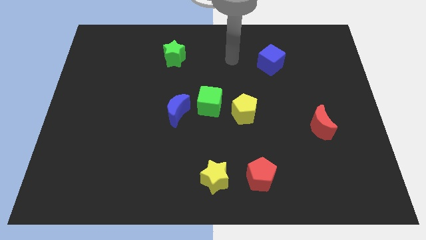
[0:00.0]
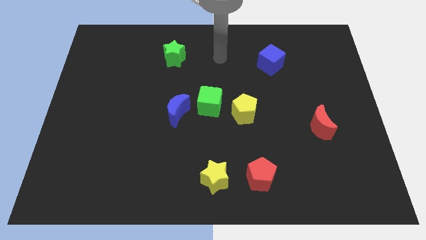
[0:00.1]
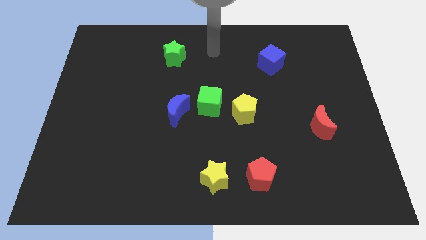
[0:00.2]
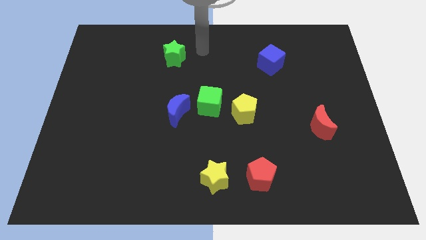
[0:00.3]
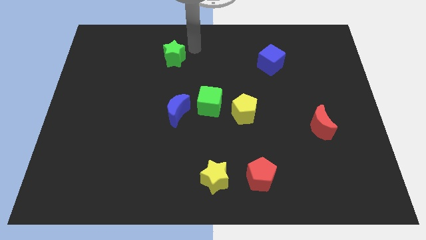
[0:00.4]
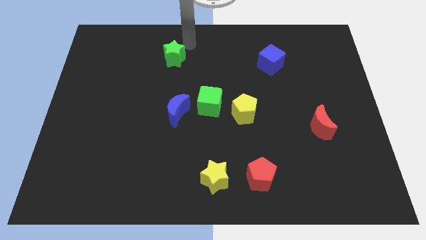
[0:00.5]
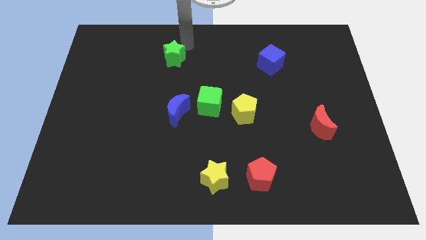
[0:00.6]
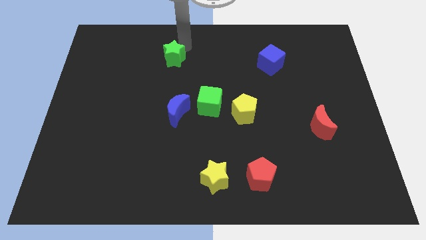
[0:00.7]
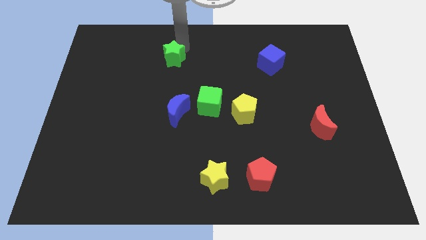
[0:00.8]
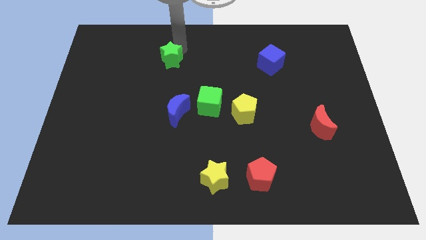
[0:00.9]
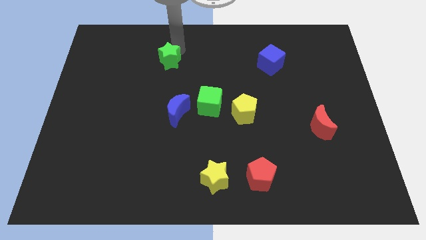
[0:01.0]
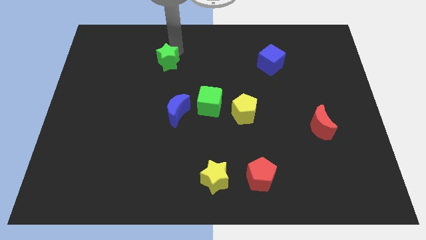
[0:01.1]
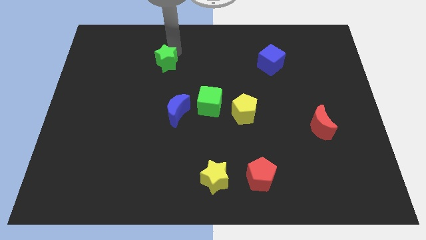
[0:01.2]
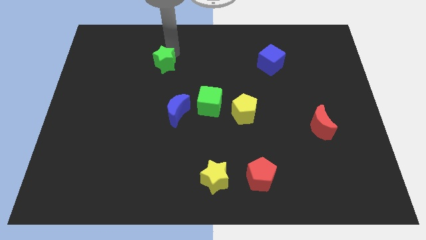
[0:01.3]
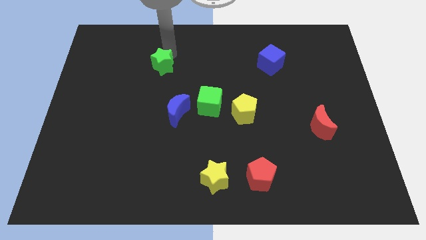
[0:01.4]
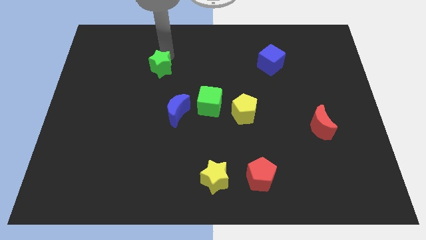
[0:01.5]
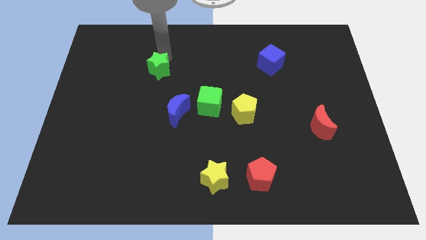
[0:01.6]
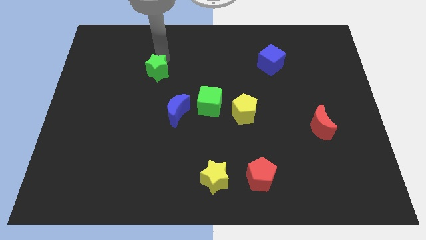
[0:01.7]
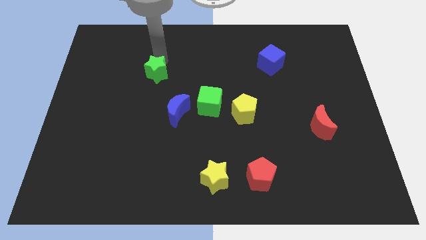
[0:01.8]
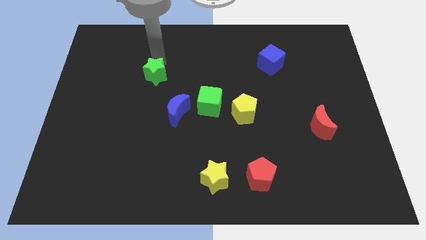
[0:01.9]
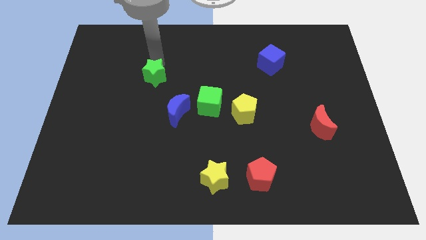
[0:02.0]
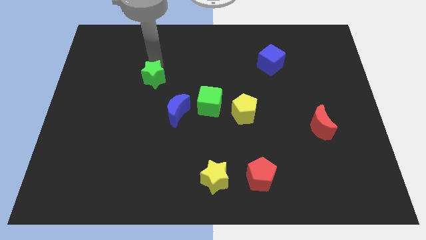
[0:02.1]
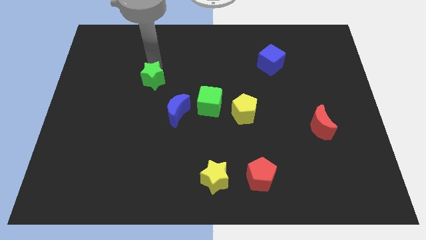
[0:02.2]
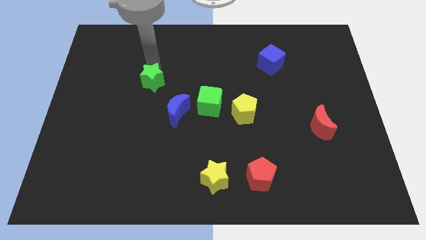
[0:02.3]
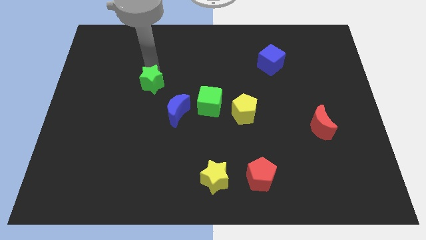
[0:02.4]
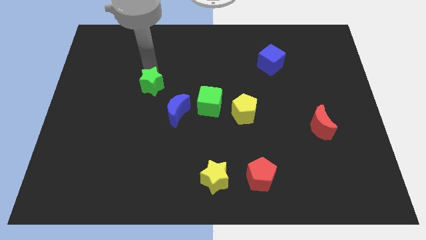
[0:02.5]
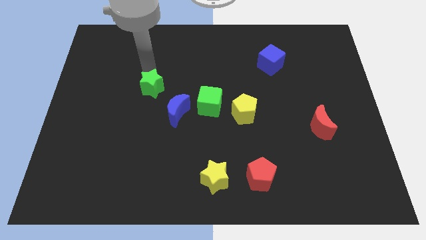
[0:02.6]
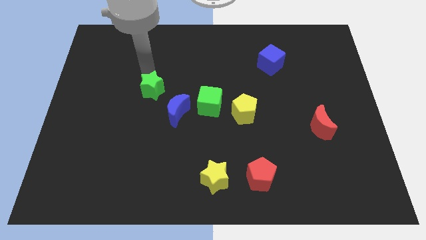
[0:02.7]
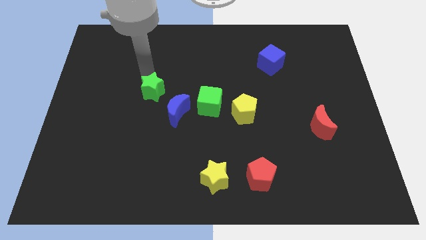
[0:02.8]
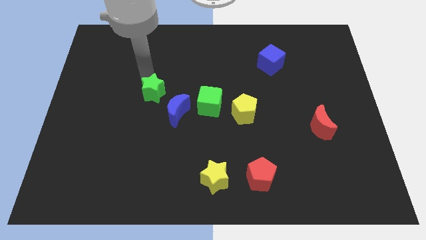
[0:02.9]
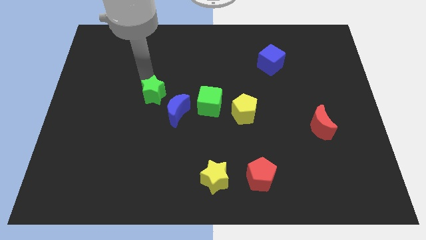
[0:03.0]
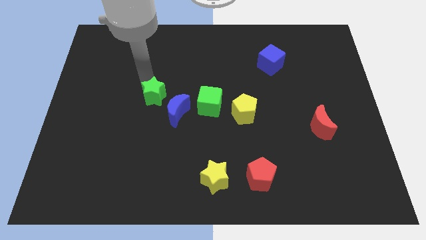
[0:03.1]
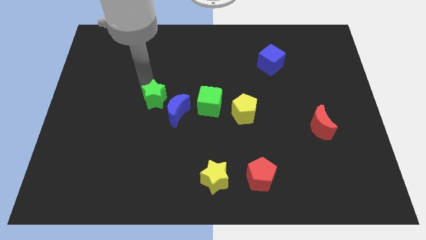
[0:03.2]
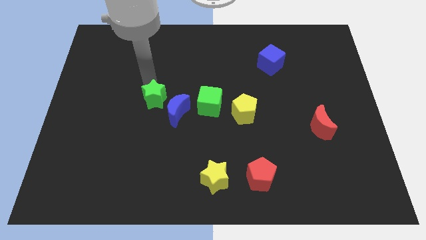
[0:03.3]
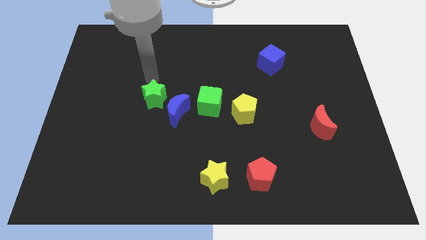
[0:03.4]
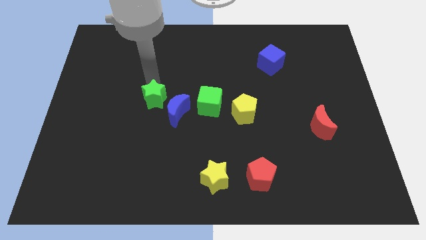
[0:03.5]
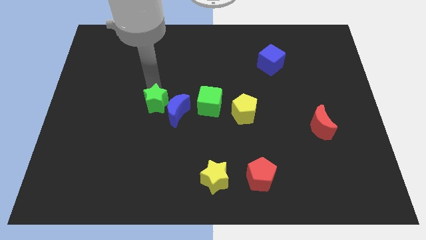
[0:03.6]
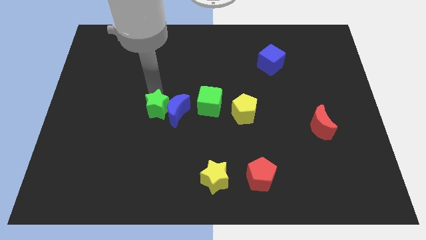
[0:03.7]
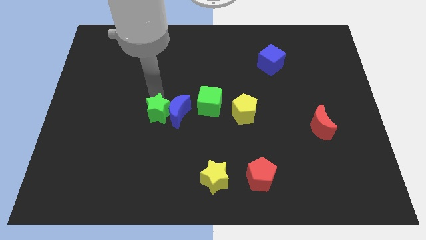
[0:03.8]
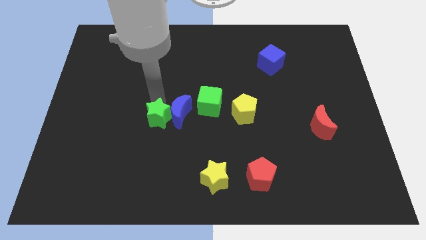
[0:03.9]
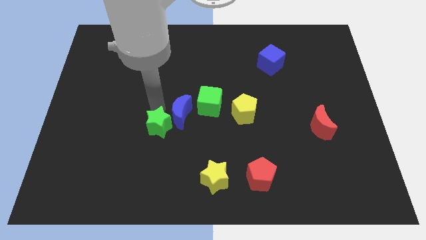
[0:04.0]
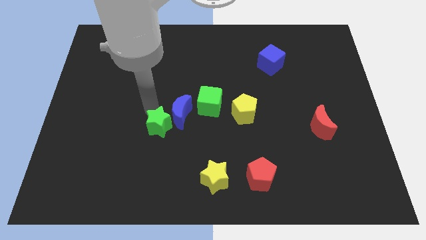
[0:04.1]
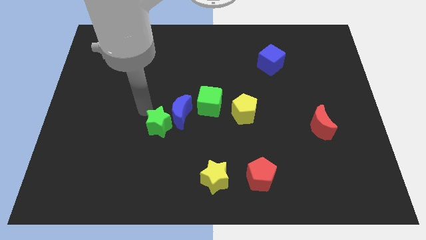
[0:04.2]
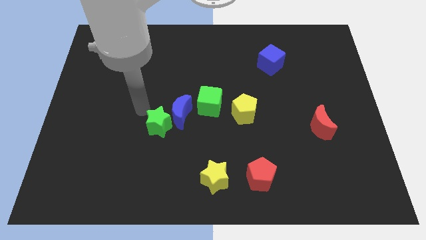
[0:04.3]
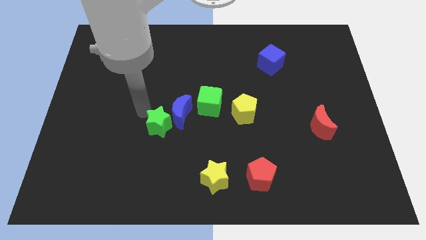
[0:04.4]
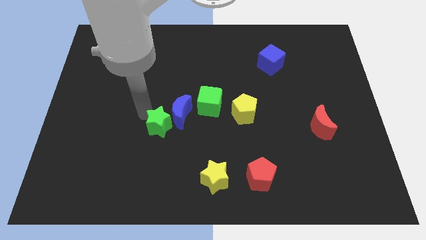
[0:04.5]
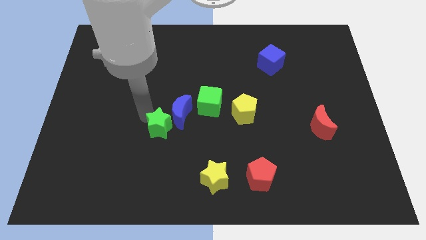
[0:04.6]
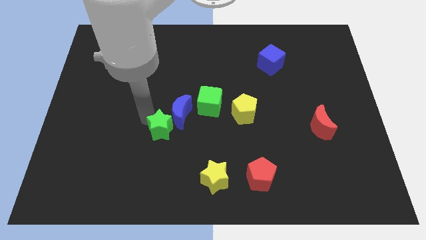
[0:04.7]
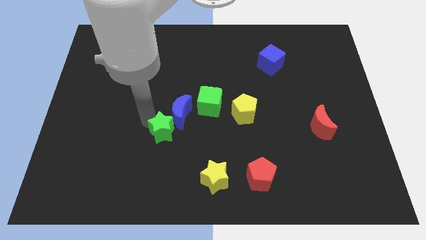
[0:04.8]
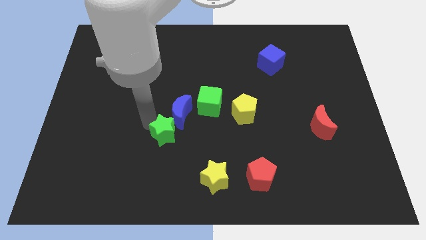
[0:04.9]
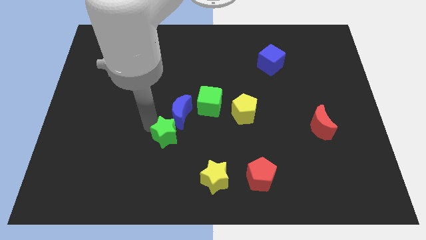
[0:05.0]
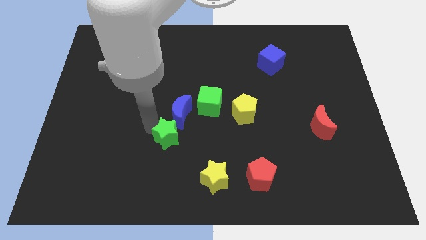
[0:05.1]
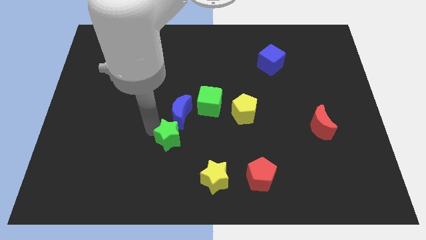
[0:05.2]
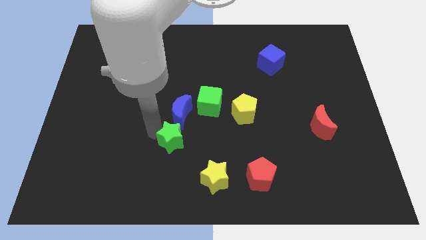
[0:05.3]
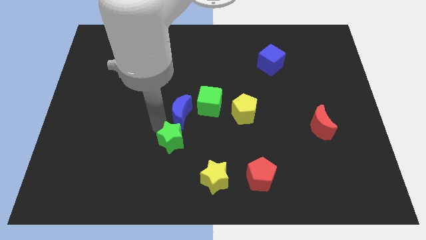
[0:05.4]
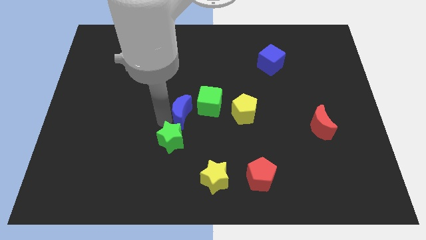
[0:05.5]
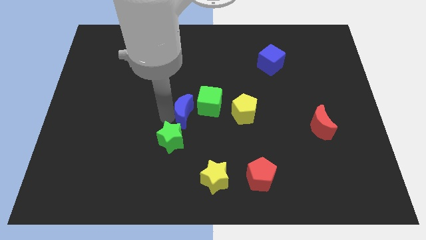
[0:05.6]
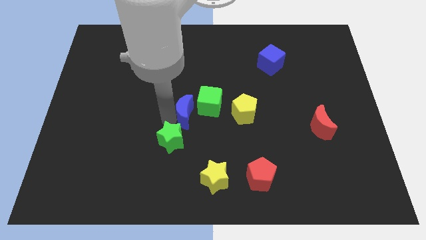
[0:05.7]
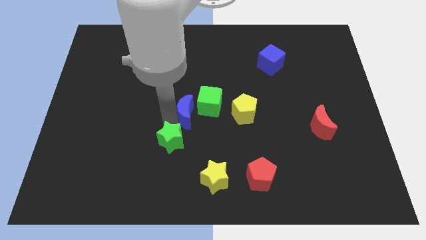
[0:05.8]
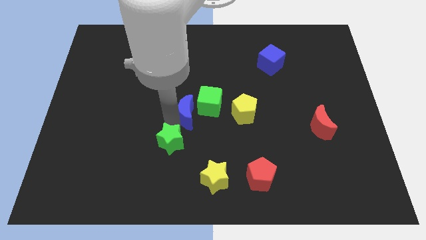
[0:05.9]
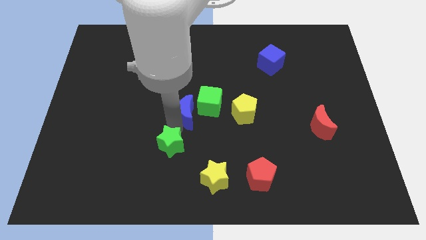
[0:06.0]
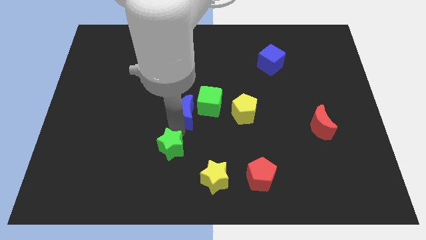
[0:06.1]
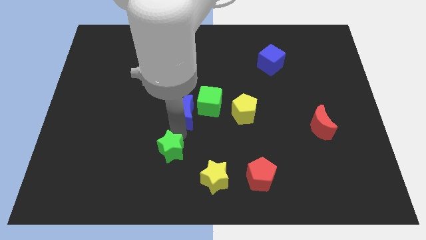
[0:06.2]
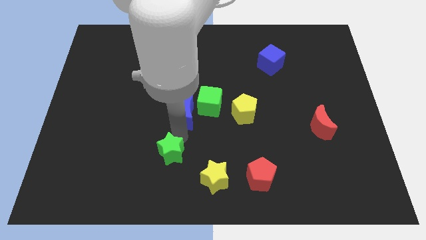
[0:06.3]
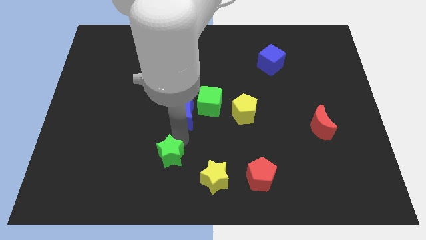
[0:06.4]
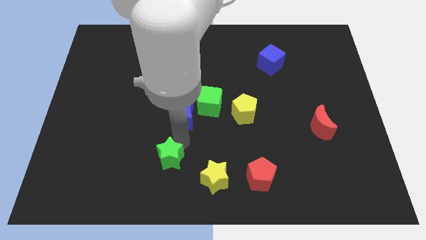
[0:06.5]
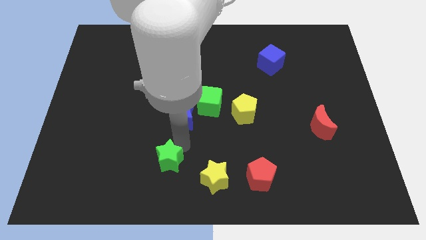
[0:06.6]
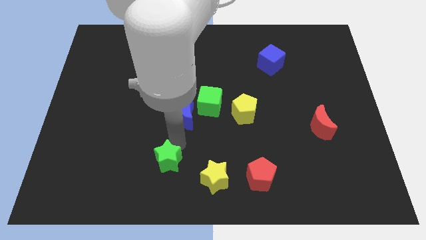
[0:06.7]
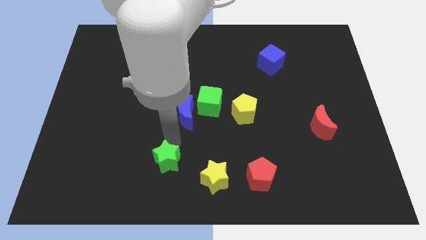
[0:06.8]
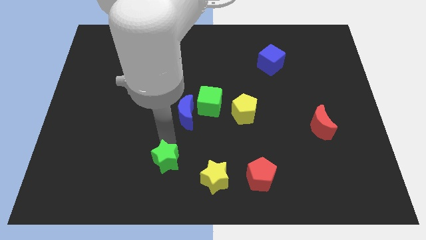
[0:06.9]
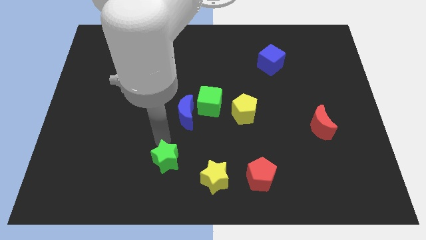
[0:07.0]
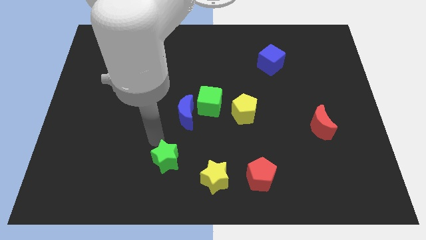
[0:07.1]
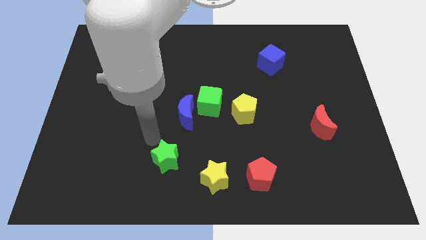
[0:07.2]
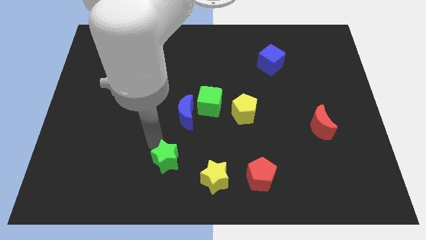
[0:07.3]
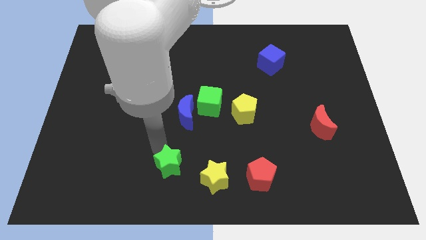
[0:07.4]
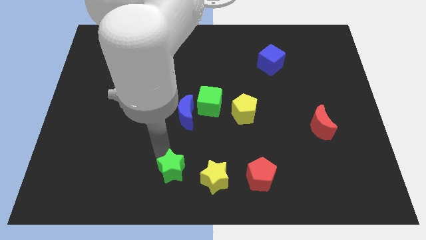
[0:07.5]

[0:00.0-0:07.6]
slide the green star to the bottom
